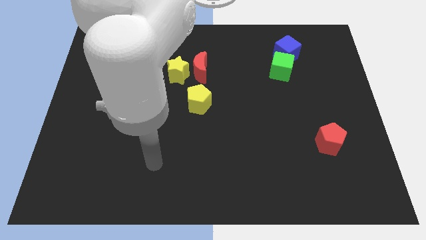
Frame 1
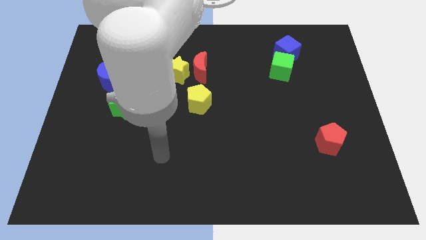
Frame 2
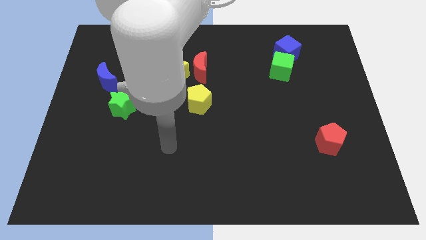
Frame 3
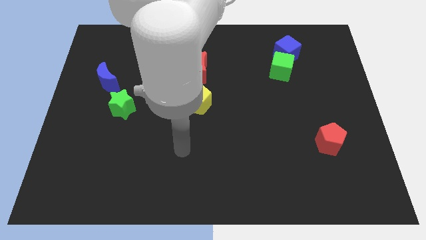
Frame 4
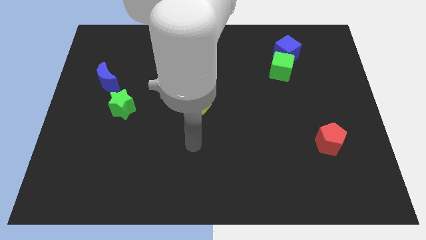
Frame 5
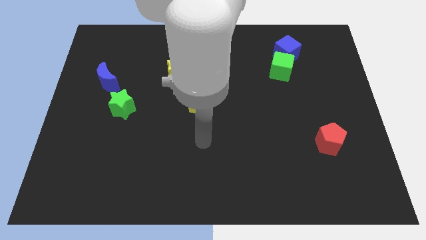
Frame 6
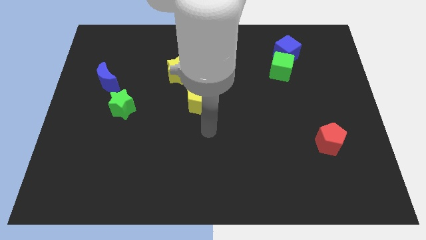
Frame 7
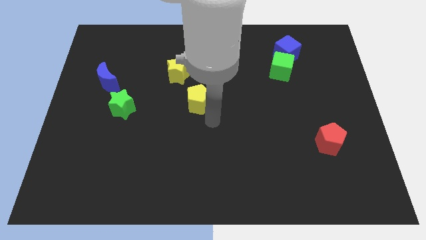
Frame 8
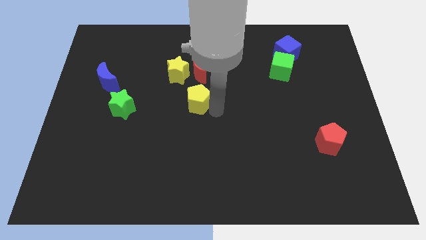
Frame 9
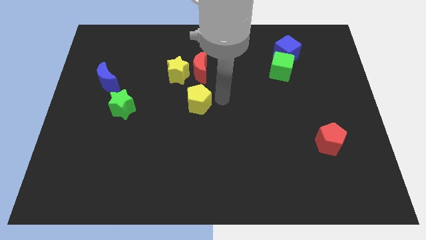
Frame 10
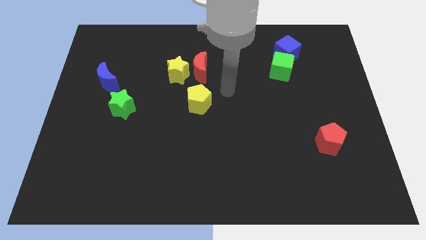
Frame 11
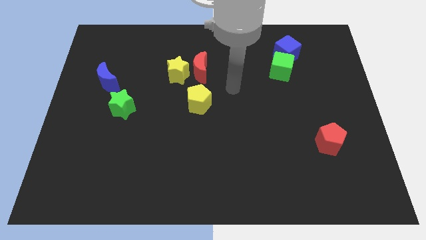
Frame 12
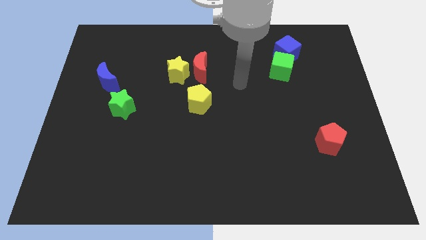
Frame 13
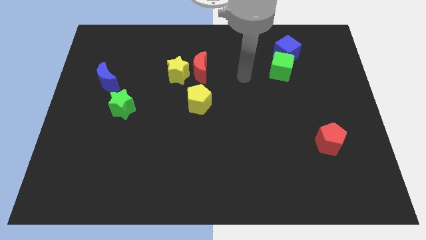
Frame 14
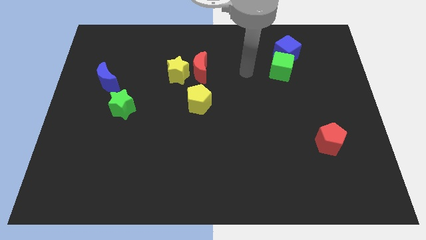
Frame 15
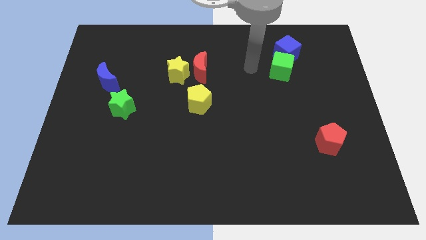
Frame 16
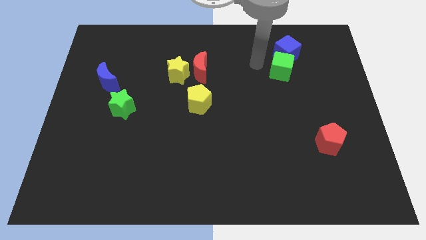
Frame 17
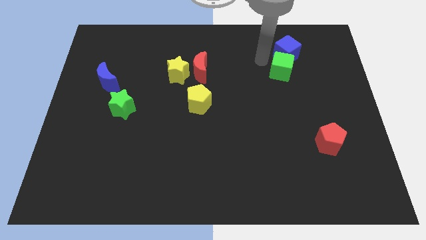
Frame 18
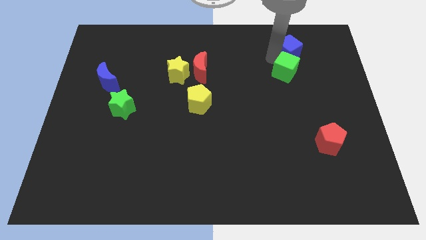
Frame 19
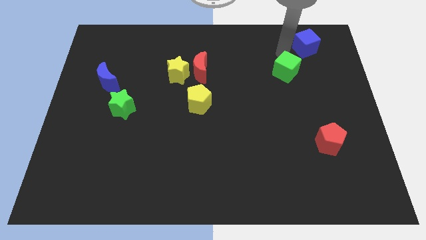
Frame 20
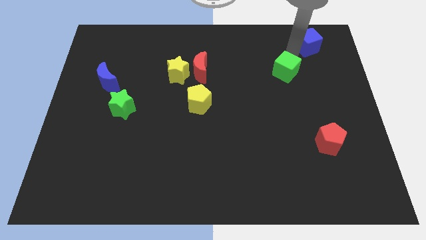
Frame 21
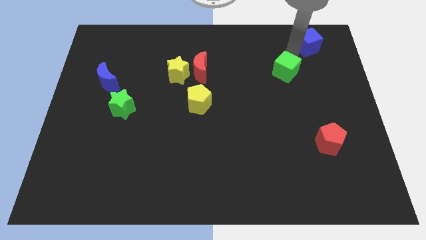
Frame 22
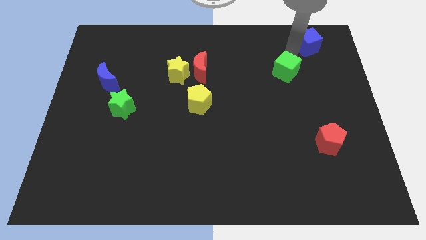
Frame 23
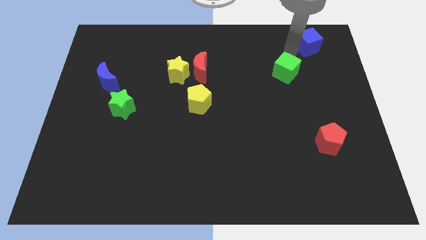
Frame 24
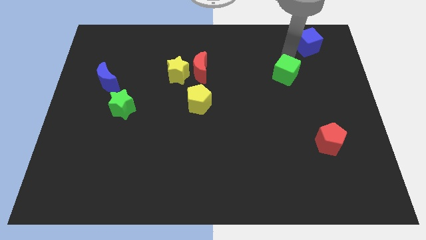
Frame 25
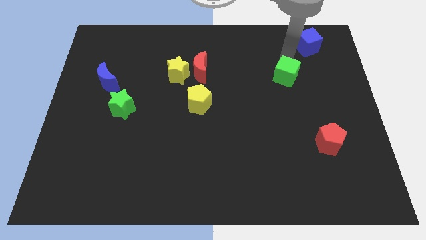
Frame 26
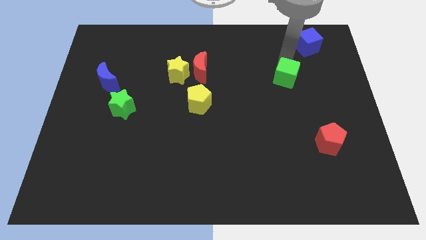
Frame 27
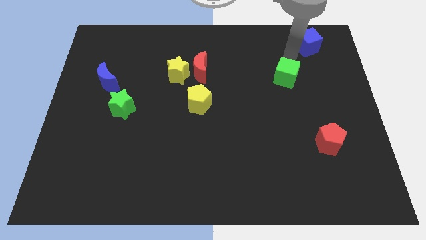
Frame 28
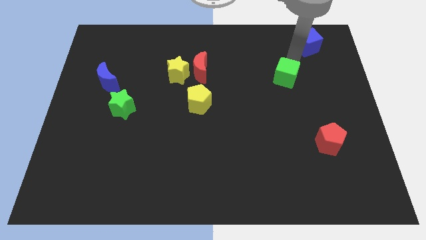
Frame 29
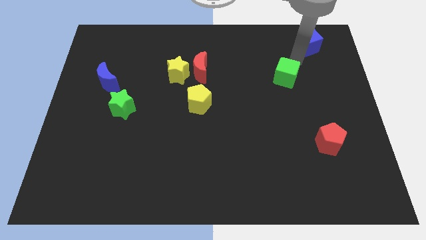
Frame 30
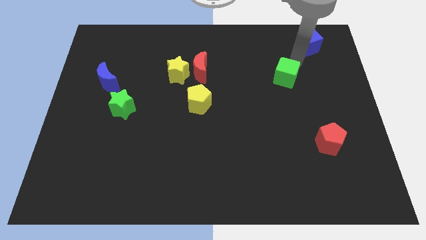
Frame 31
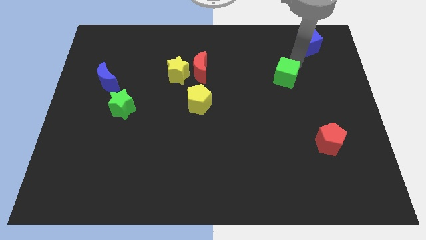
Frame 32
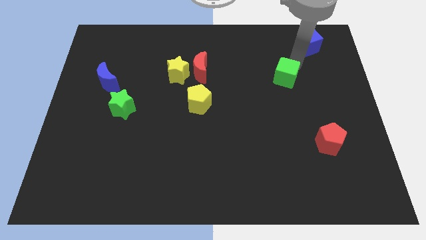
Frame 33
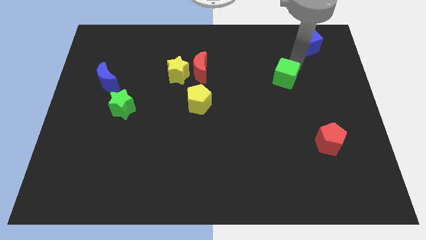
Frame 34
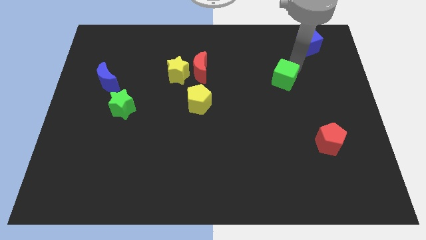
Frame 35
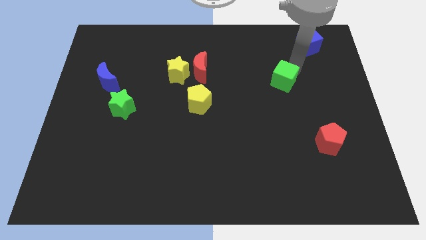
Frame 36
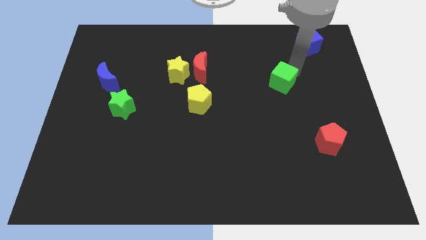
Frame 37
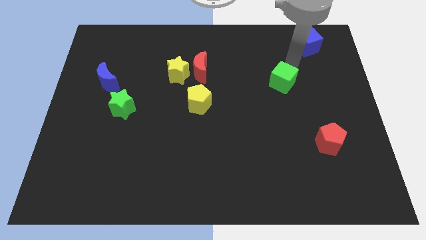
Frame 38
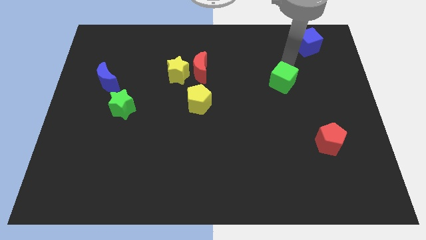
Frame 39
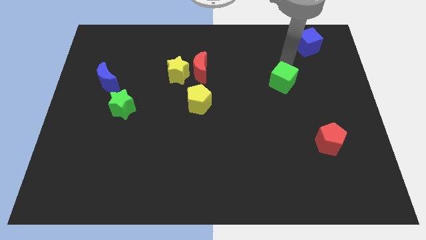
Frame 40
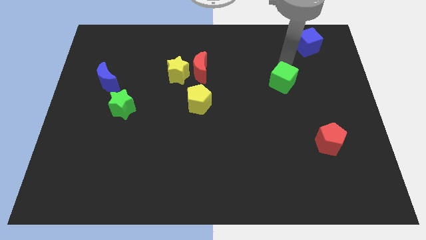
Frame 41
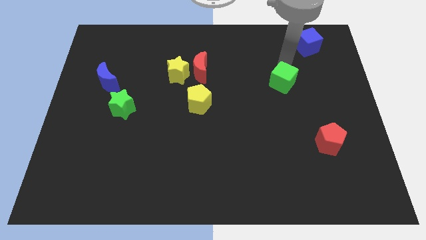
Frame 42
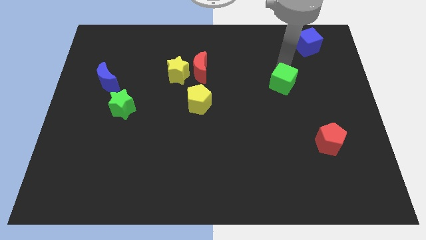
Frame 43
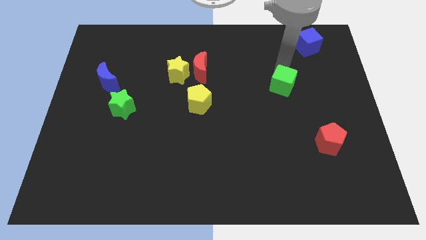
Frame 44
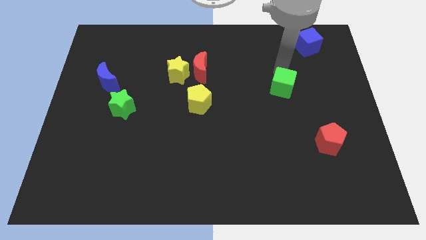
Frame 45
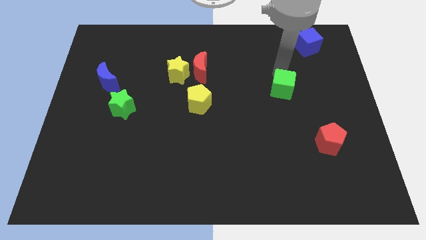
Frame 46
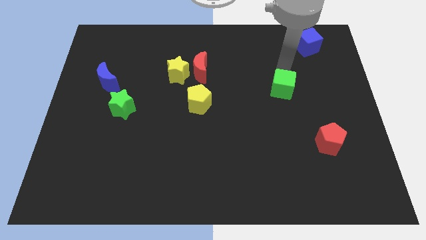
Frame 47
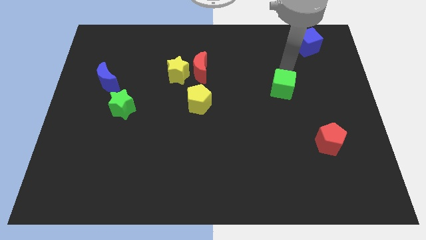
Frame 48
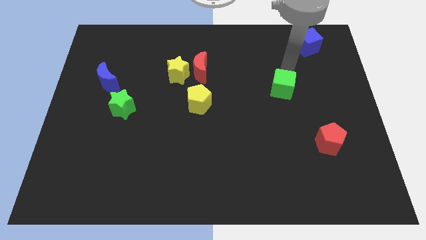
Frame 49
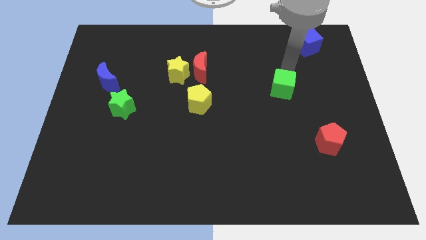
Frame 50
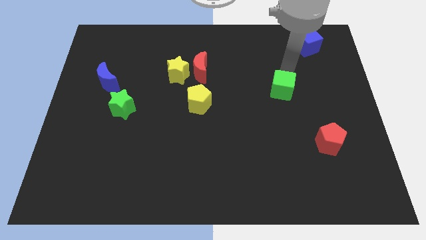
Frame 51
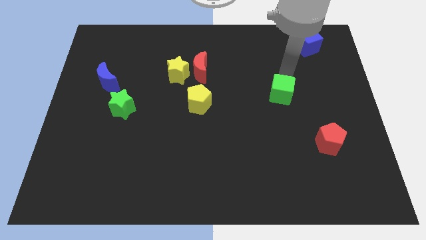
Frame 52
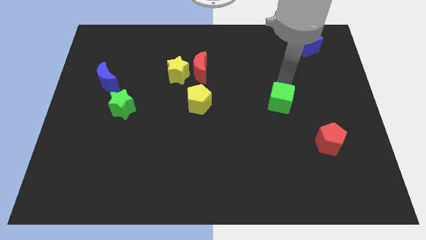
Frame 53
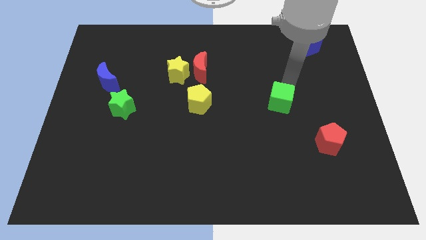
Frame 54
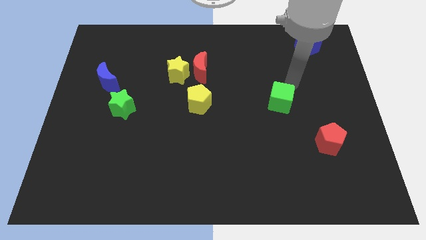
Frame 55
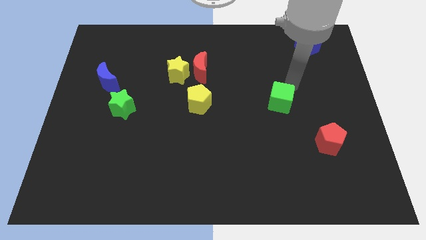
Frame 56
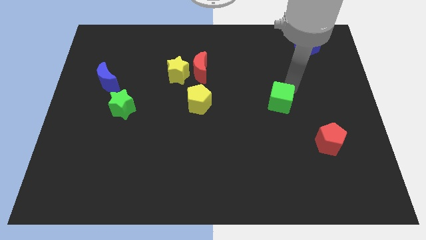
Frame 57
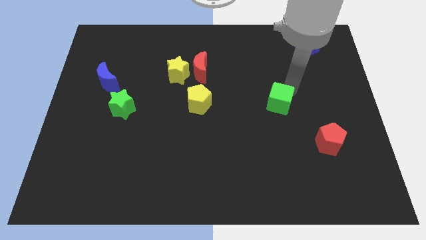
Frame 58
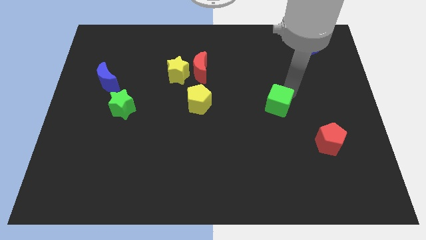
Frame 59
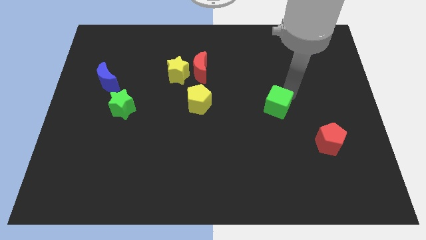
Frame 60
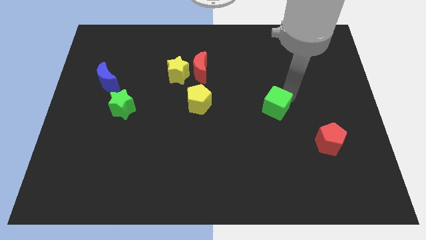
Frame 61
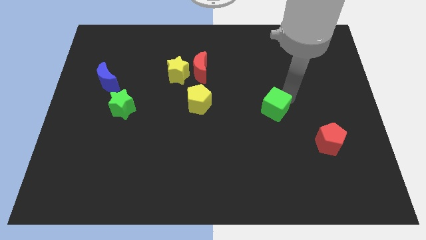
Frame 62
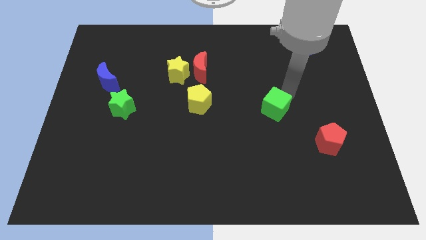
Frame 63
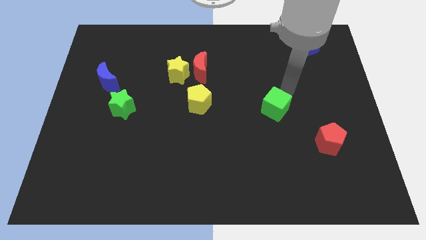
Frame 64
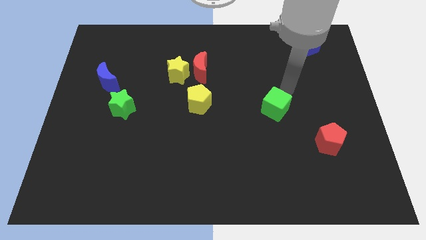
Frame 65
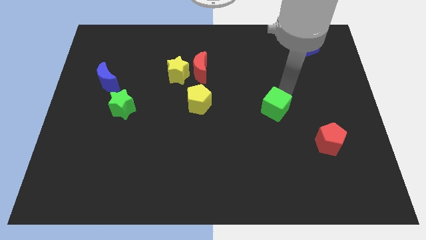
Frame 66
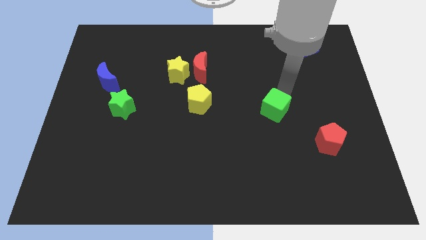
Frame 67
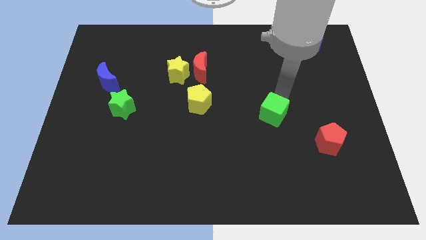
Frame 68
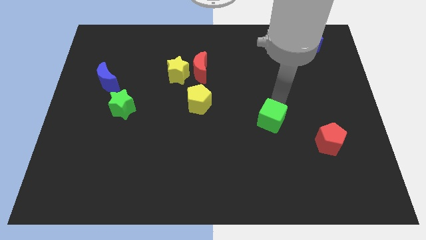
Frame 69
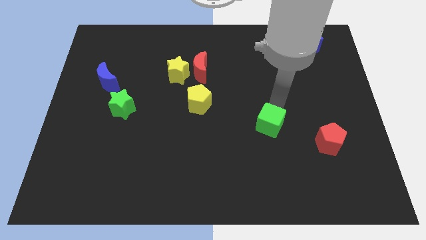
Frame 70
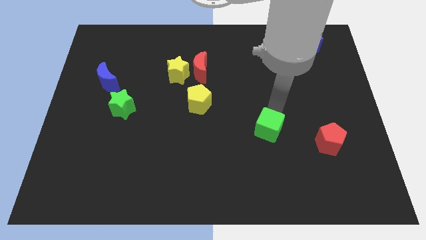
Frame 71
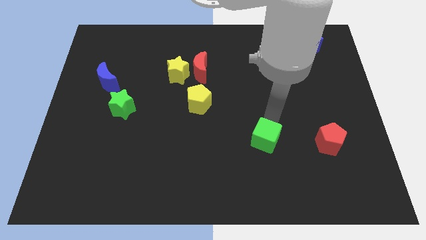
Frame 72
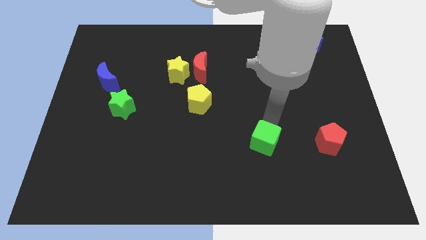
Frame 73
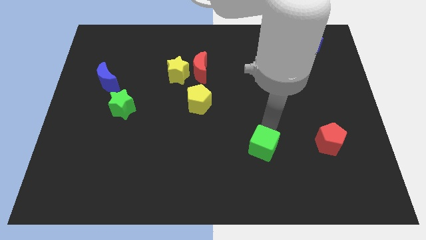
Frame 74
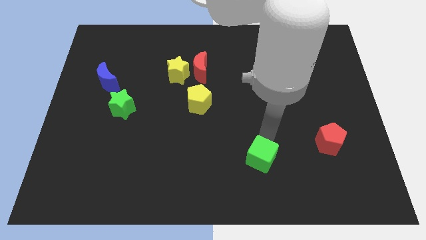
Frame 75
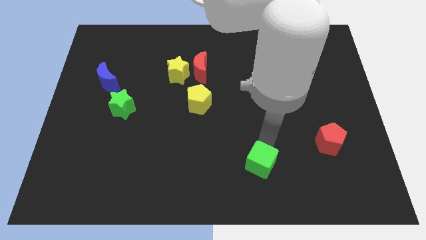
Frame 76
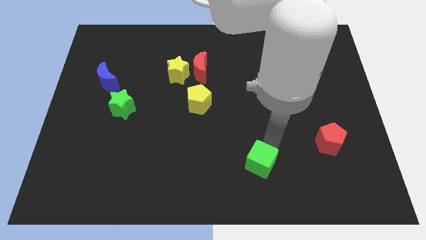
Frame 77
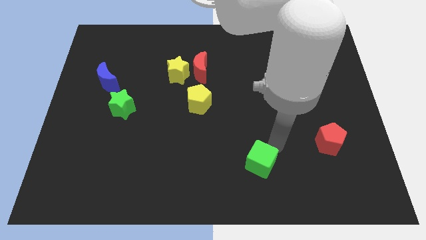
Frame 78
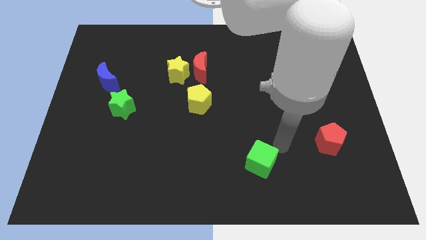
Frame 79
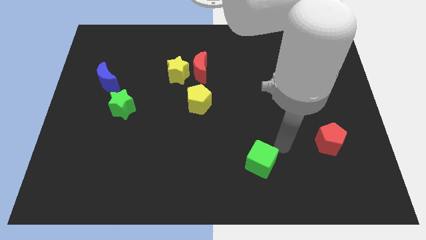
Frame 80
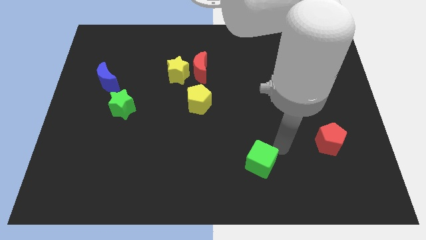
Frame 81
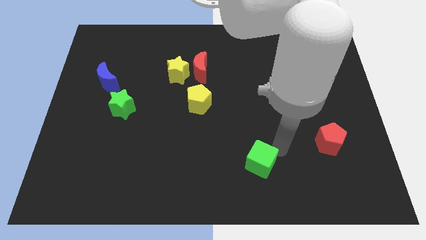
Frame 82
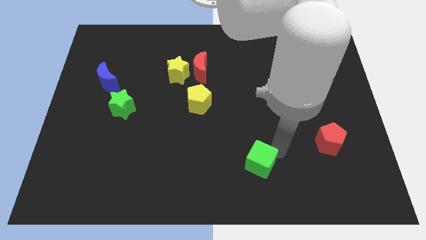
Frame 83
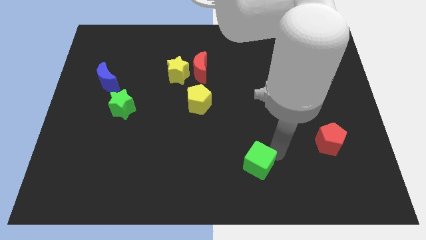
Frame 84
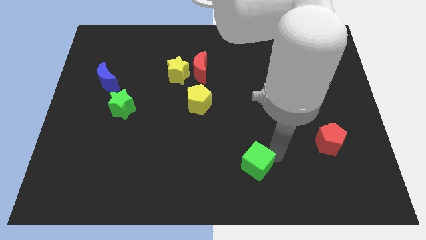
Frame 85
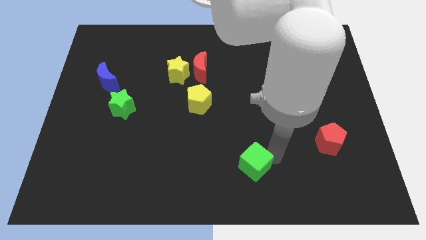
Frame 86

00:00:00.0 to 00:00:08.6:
move the green cube to the bottom side
